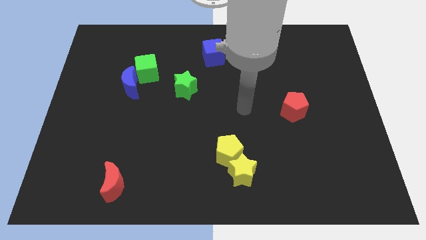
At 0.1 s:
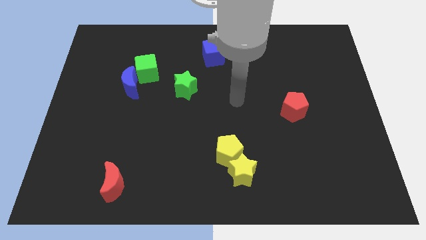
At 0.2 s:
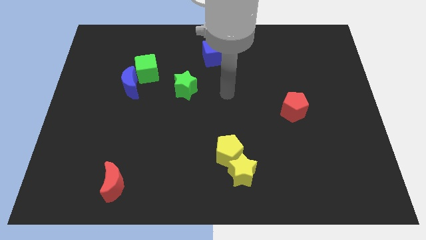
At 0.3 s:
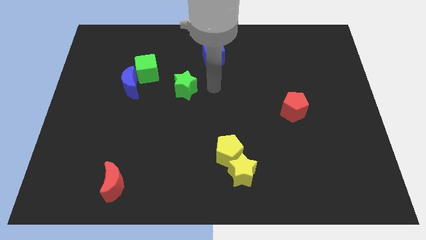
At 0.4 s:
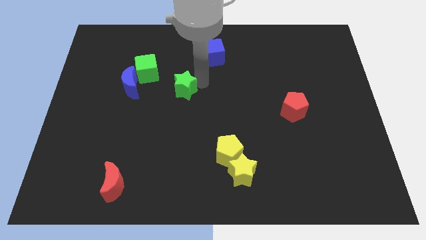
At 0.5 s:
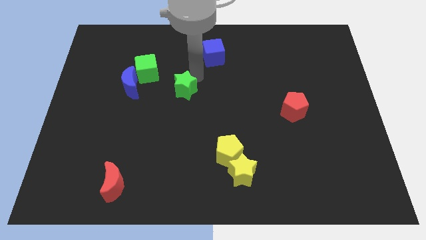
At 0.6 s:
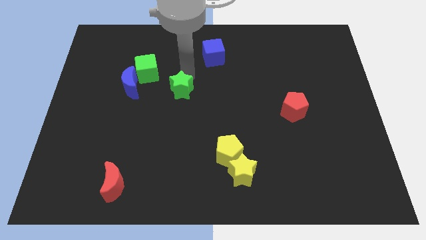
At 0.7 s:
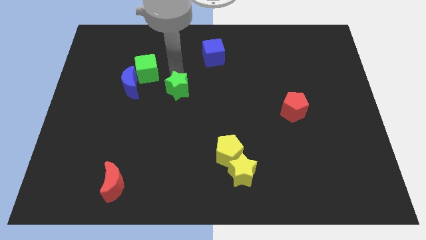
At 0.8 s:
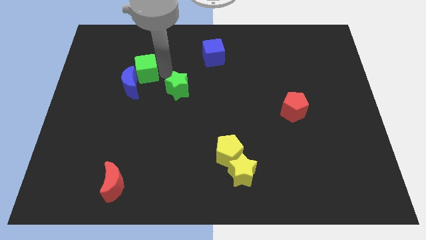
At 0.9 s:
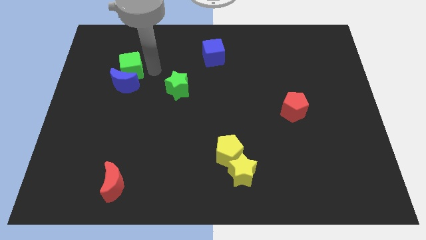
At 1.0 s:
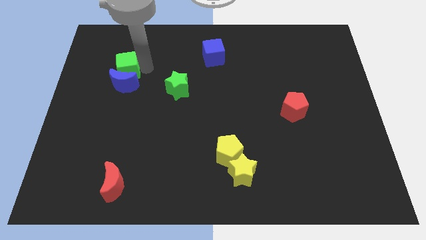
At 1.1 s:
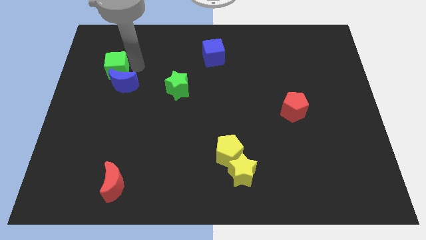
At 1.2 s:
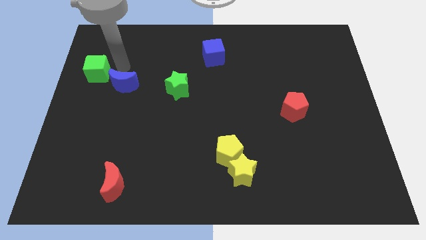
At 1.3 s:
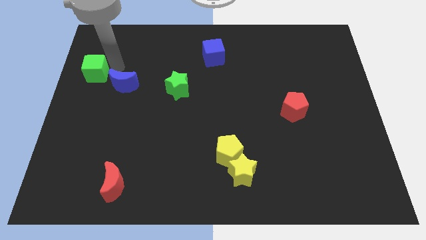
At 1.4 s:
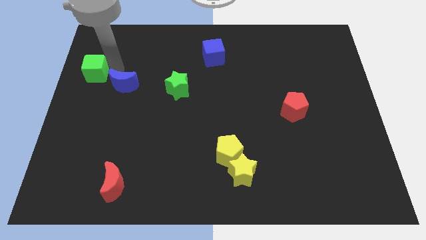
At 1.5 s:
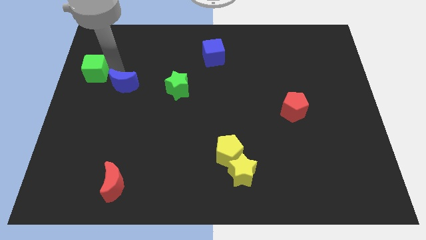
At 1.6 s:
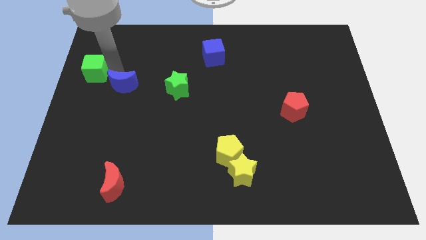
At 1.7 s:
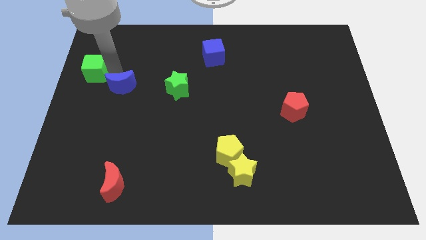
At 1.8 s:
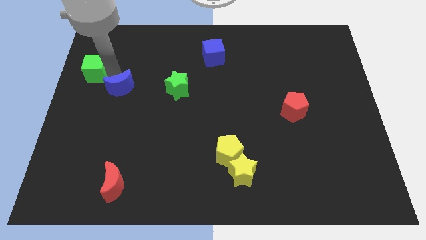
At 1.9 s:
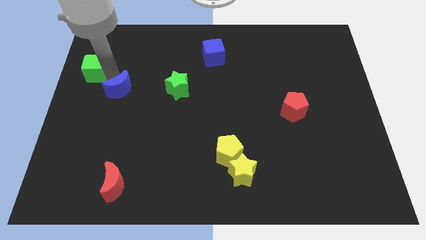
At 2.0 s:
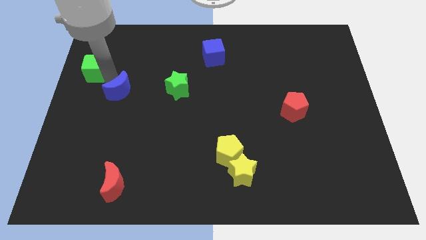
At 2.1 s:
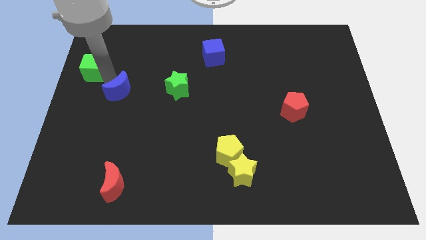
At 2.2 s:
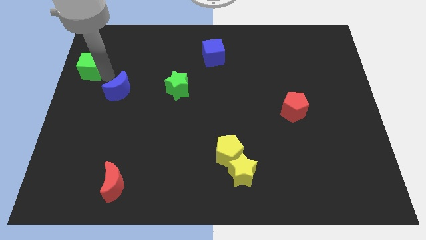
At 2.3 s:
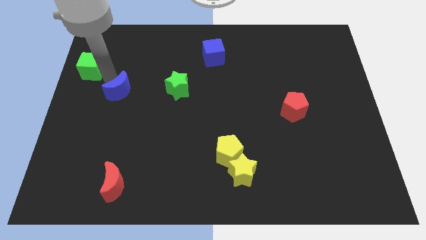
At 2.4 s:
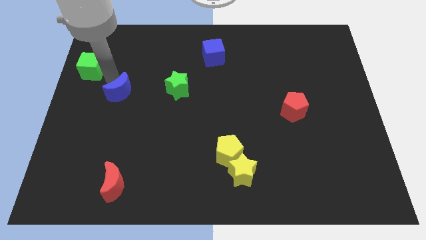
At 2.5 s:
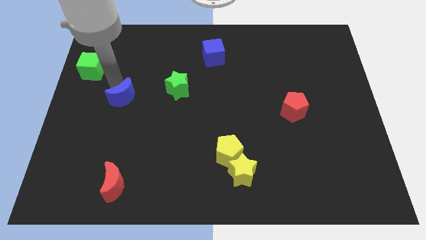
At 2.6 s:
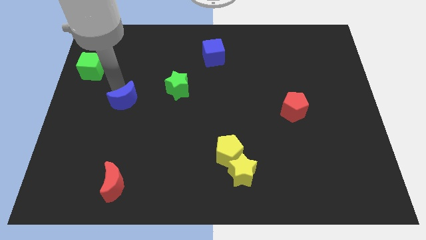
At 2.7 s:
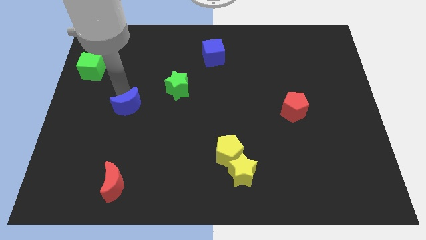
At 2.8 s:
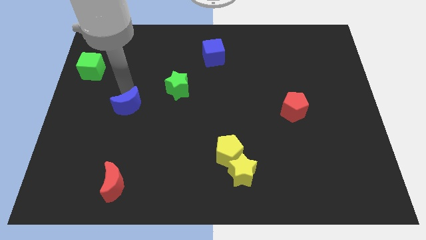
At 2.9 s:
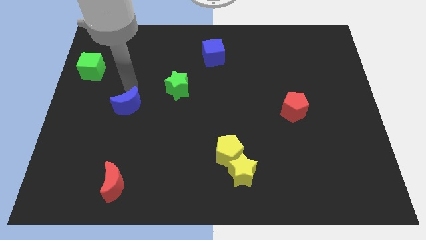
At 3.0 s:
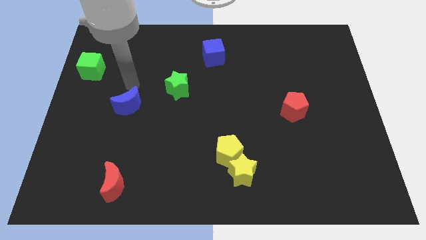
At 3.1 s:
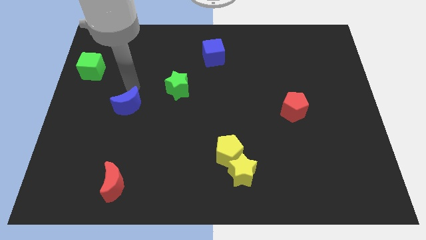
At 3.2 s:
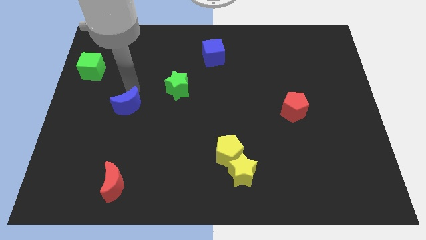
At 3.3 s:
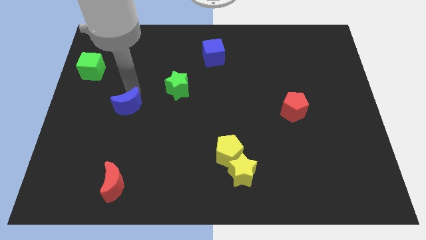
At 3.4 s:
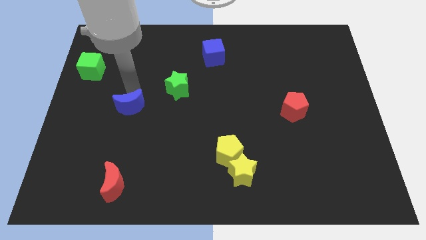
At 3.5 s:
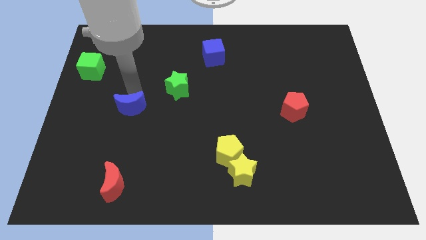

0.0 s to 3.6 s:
slightly push the blue moon downwards

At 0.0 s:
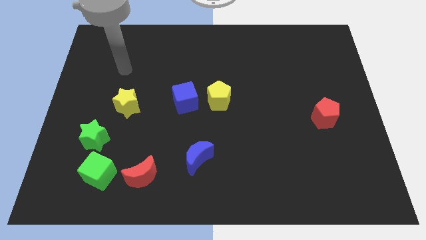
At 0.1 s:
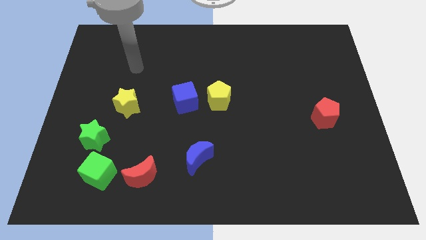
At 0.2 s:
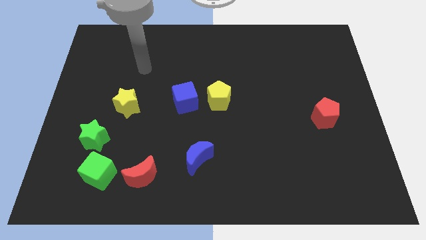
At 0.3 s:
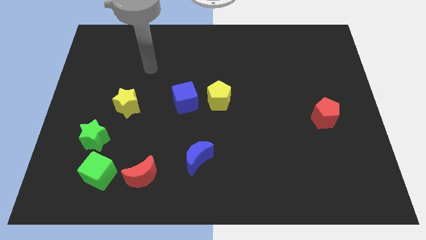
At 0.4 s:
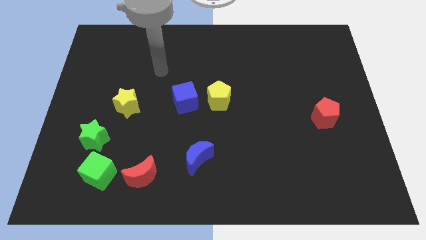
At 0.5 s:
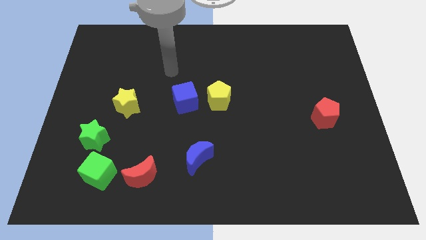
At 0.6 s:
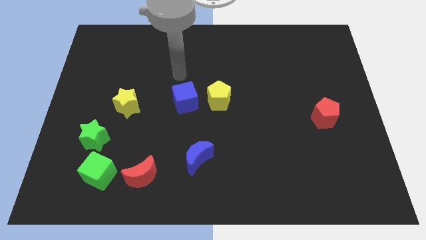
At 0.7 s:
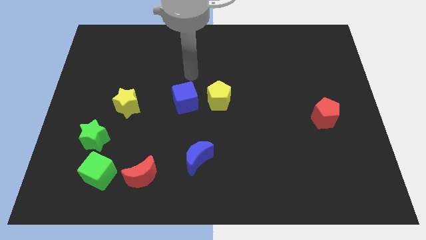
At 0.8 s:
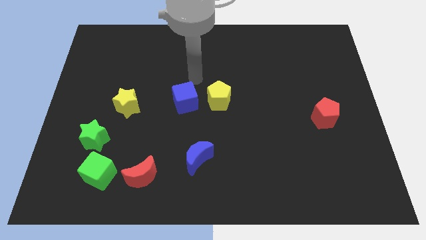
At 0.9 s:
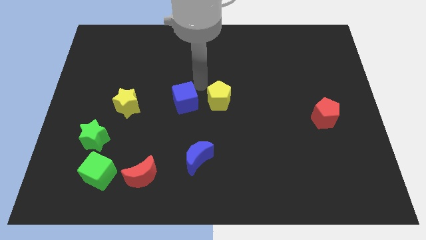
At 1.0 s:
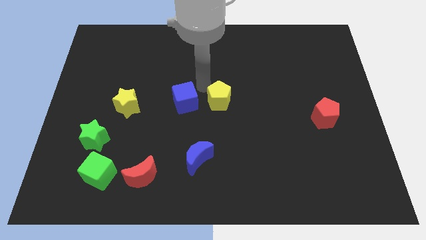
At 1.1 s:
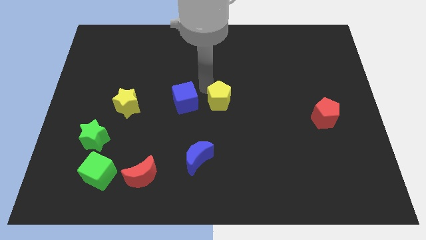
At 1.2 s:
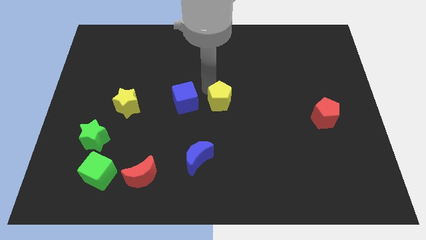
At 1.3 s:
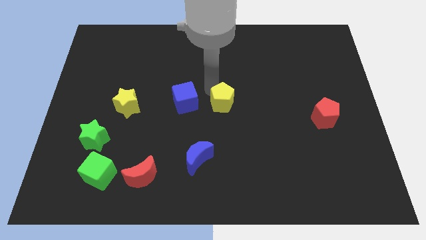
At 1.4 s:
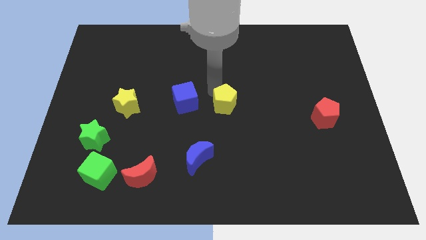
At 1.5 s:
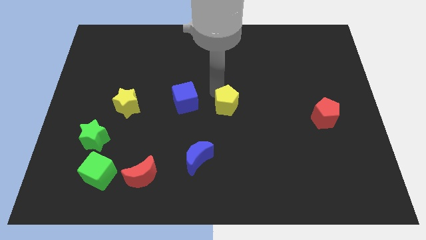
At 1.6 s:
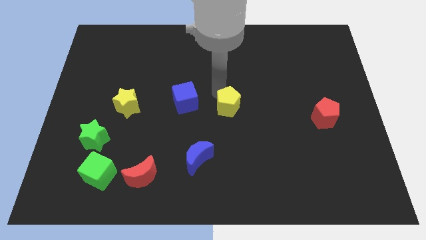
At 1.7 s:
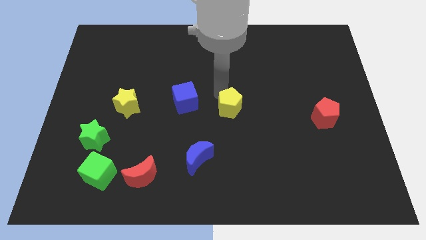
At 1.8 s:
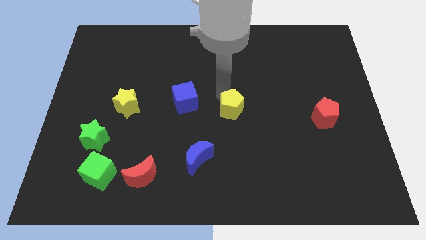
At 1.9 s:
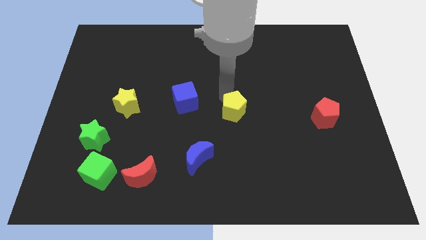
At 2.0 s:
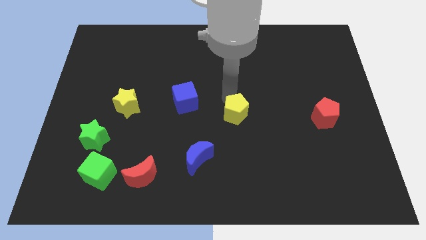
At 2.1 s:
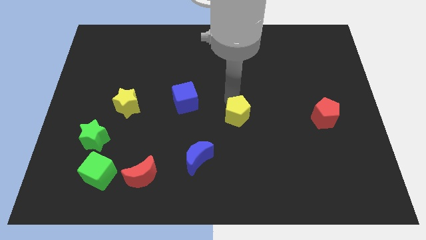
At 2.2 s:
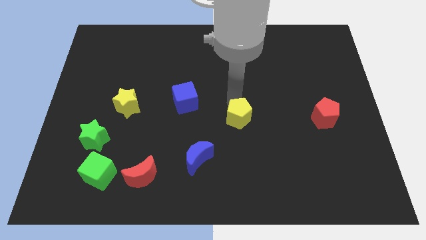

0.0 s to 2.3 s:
slightly push the yellow pentagon diagonally downwards and to the right

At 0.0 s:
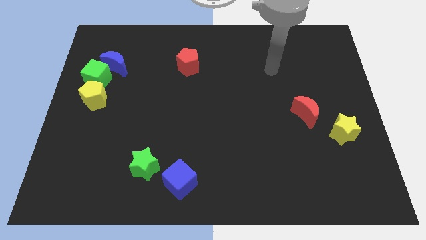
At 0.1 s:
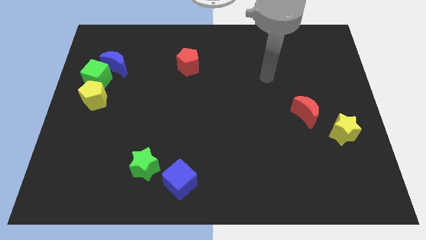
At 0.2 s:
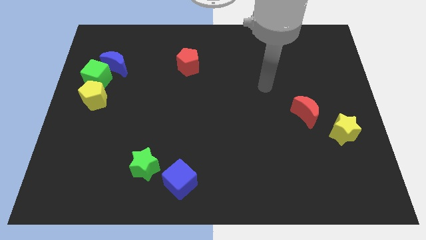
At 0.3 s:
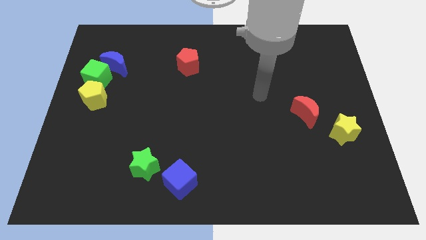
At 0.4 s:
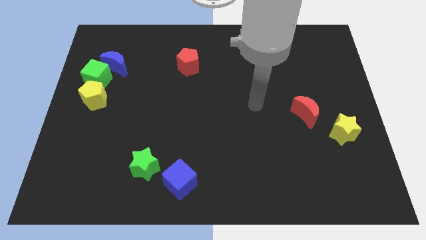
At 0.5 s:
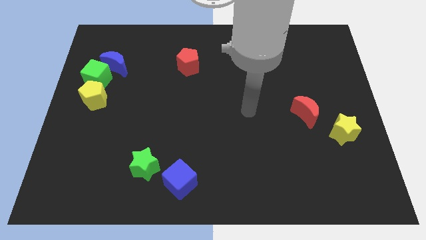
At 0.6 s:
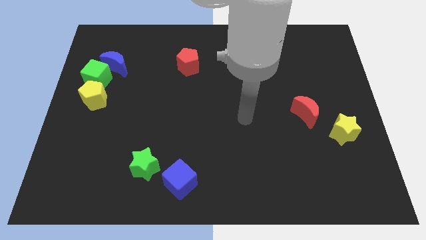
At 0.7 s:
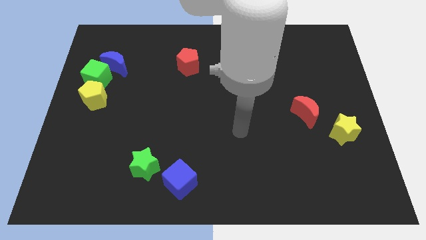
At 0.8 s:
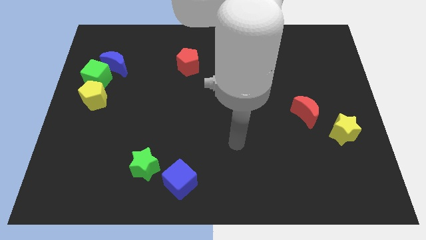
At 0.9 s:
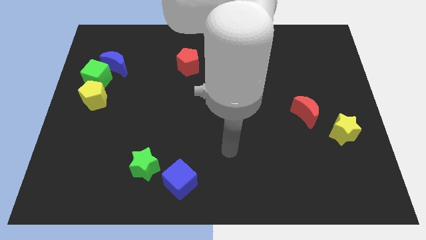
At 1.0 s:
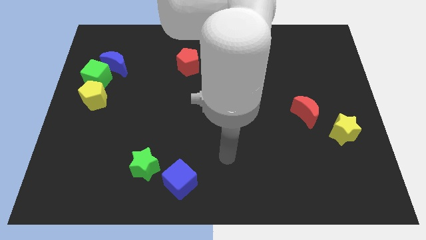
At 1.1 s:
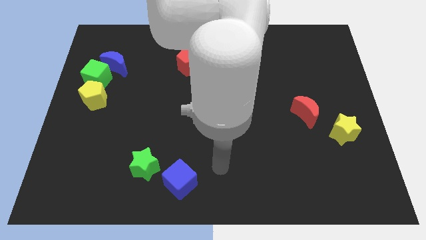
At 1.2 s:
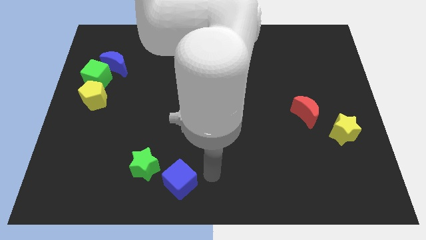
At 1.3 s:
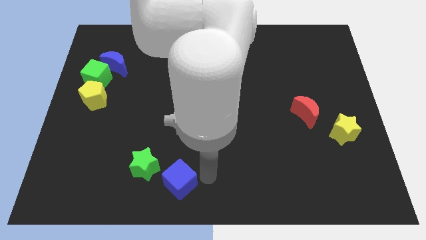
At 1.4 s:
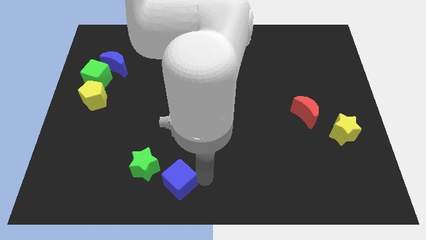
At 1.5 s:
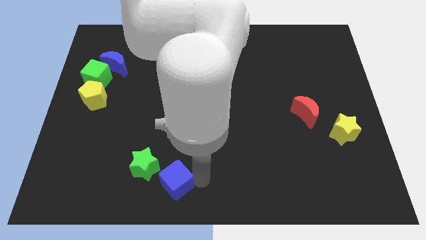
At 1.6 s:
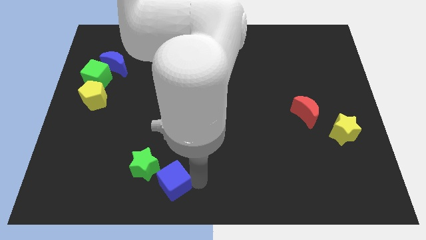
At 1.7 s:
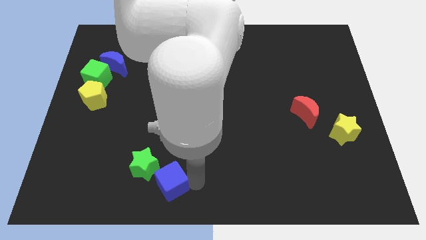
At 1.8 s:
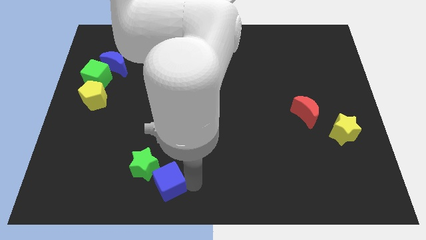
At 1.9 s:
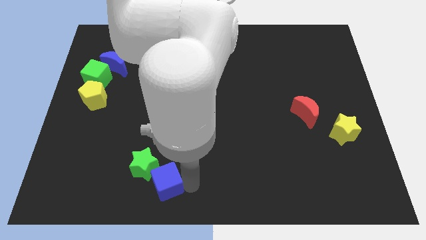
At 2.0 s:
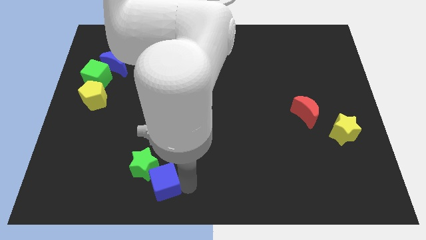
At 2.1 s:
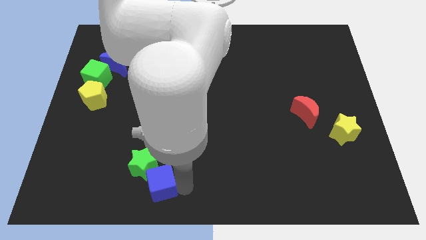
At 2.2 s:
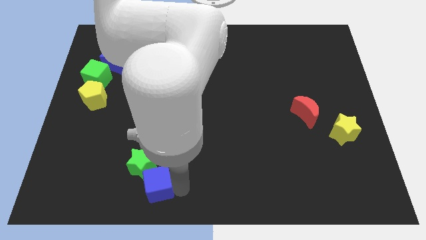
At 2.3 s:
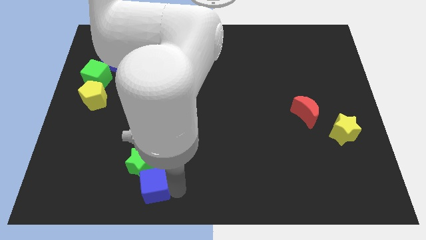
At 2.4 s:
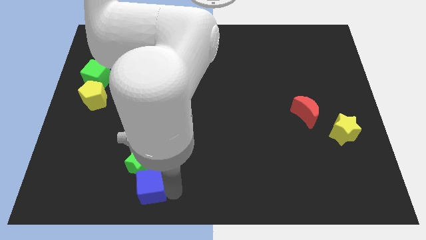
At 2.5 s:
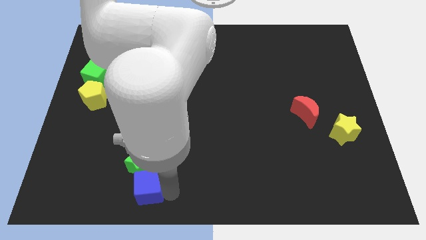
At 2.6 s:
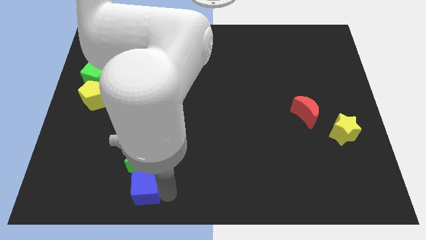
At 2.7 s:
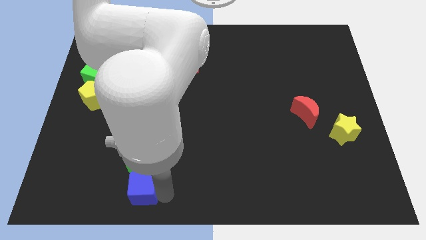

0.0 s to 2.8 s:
slightly move the blue cube left
